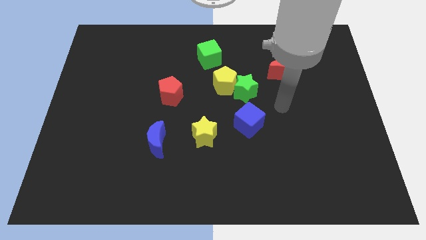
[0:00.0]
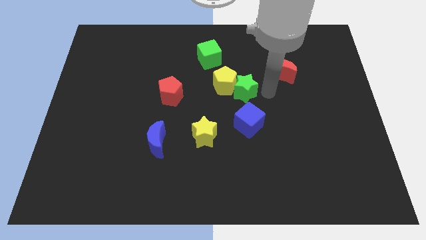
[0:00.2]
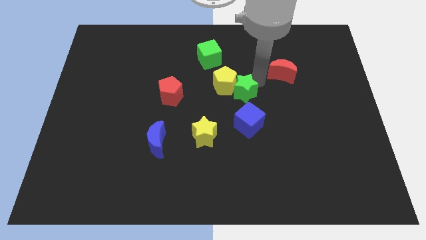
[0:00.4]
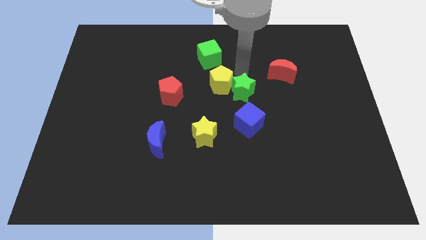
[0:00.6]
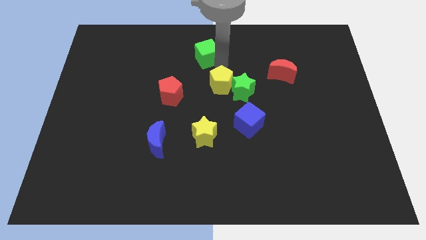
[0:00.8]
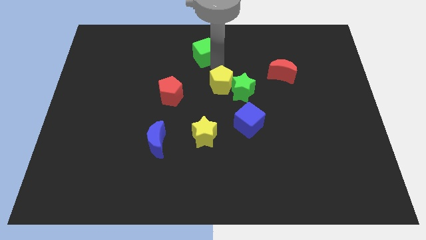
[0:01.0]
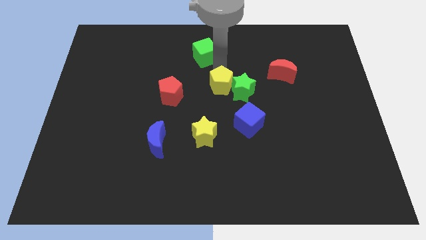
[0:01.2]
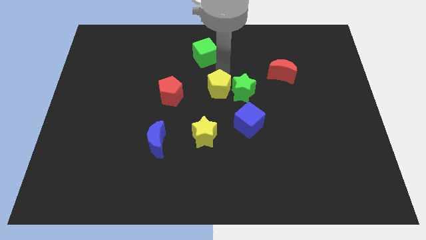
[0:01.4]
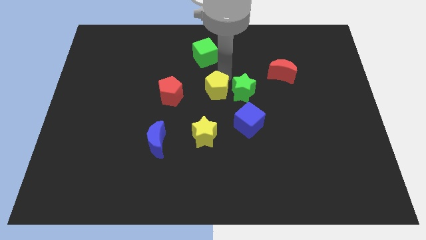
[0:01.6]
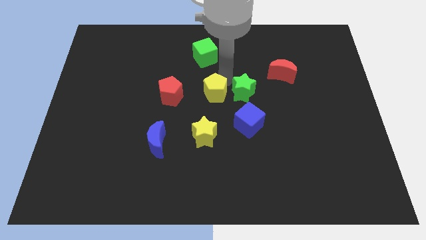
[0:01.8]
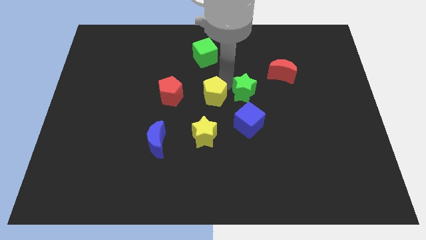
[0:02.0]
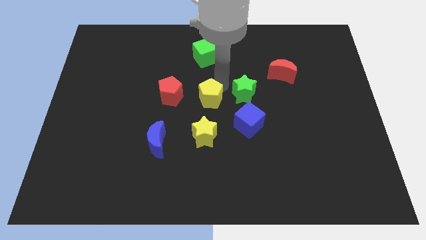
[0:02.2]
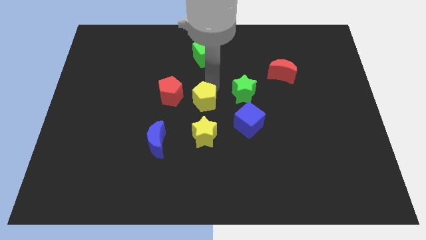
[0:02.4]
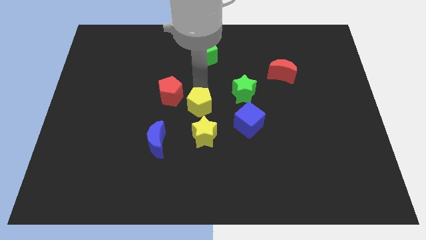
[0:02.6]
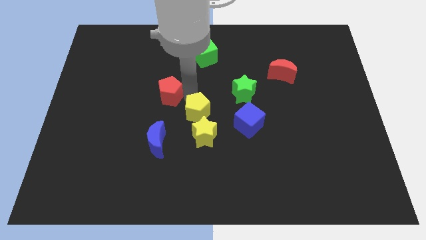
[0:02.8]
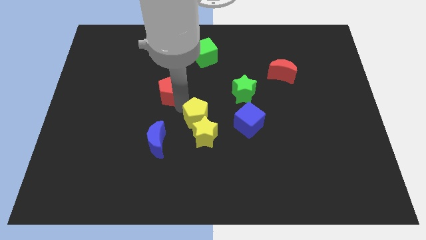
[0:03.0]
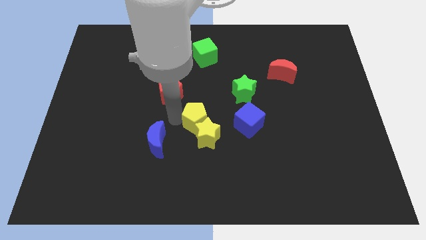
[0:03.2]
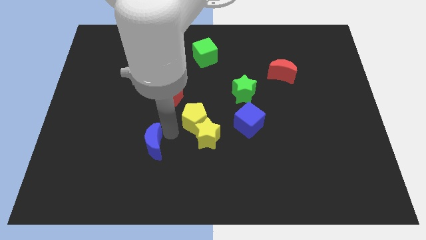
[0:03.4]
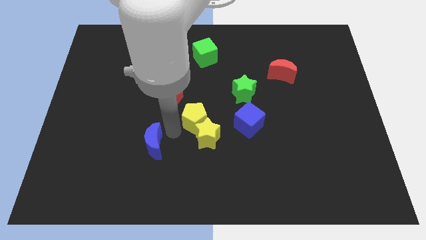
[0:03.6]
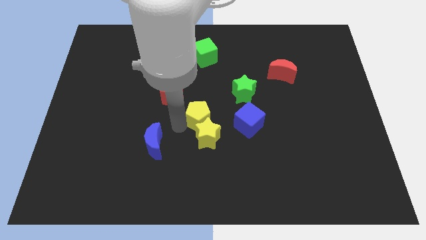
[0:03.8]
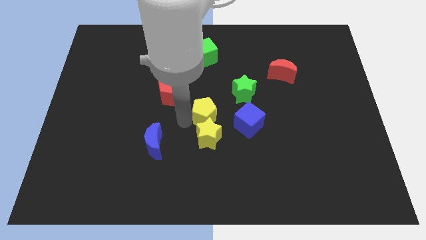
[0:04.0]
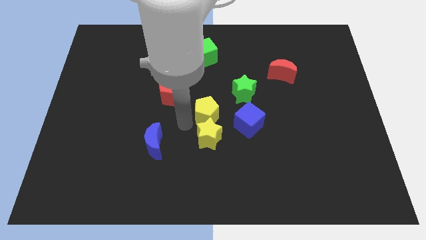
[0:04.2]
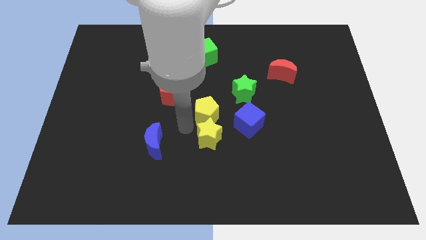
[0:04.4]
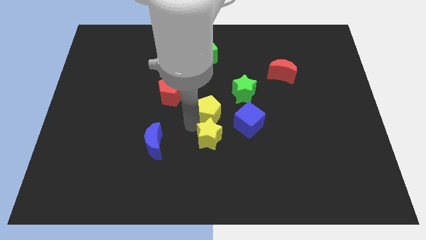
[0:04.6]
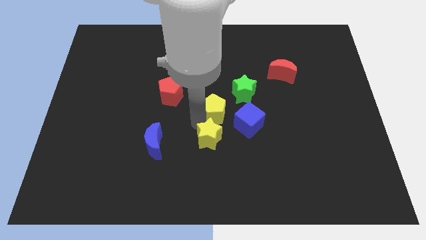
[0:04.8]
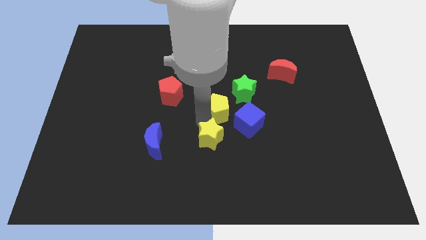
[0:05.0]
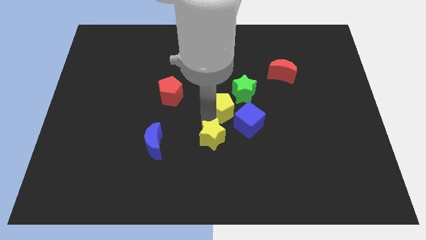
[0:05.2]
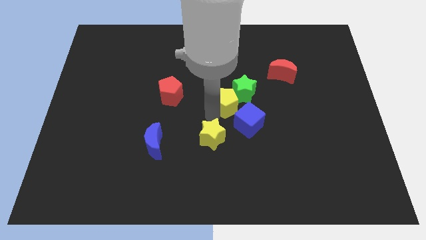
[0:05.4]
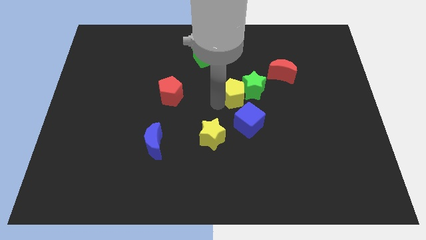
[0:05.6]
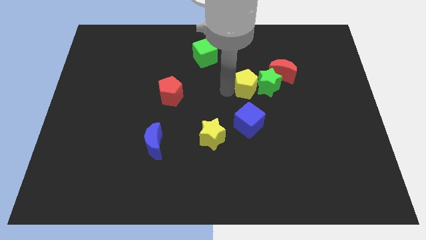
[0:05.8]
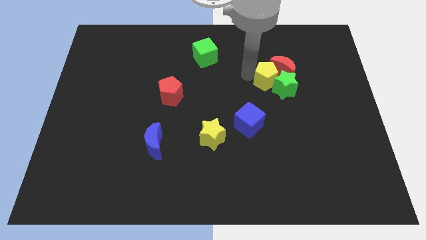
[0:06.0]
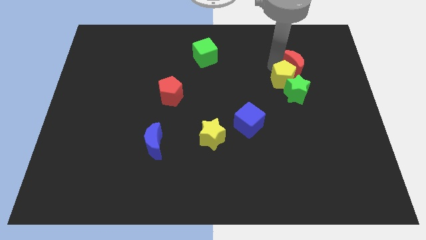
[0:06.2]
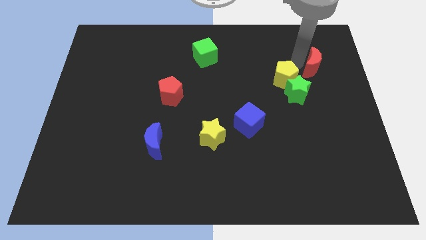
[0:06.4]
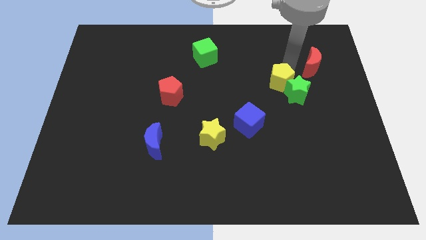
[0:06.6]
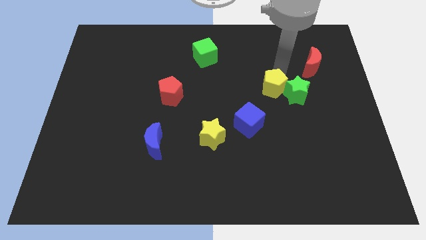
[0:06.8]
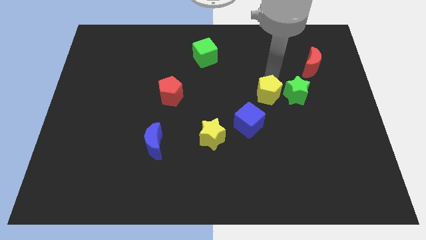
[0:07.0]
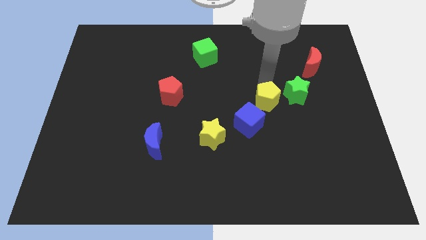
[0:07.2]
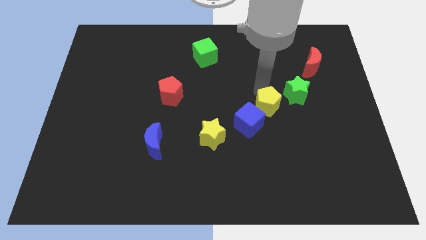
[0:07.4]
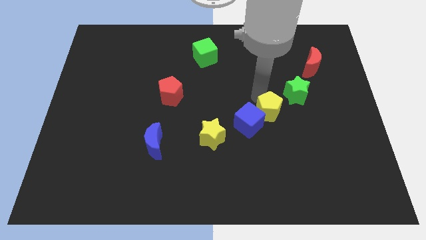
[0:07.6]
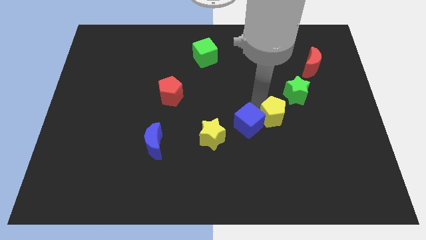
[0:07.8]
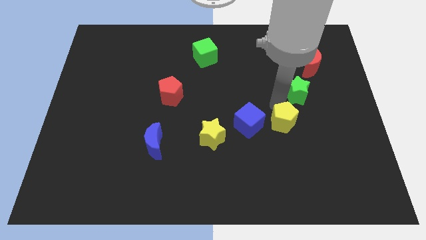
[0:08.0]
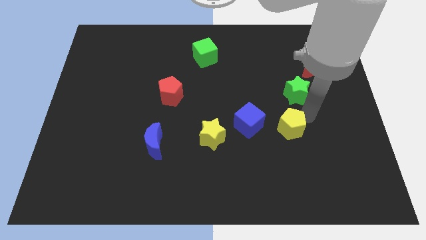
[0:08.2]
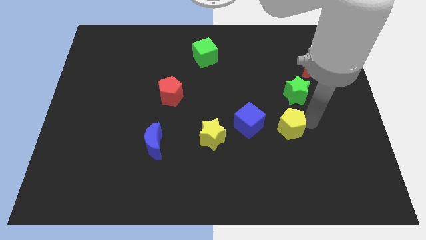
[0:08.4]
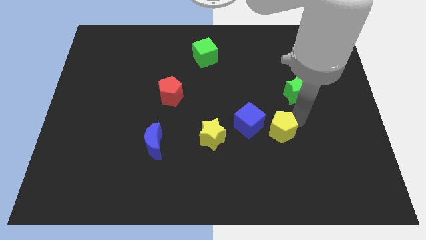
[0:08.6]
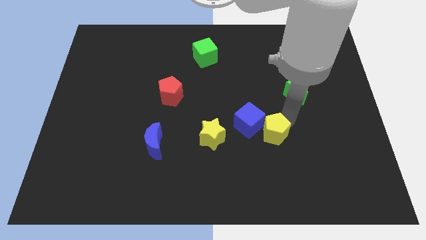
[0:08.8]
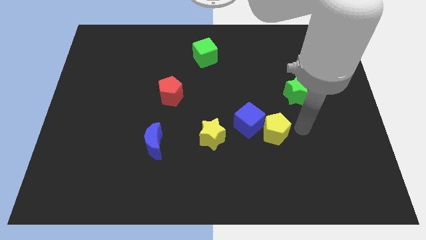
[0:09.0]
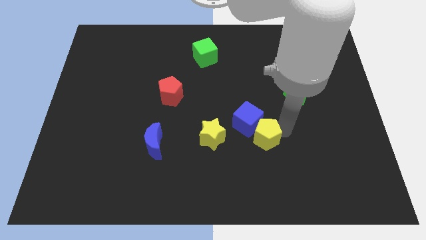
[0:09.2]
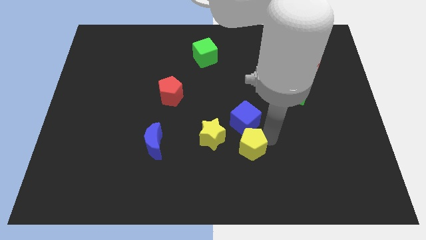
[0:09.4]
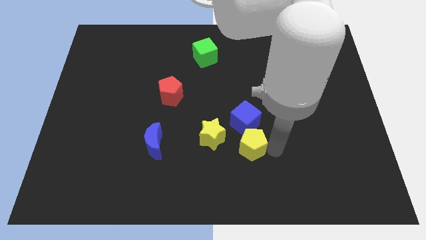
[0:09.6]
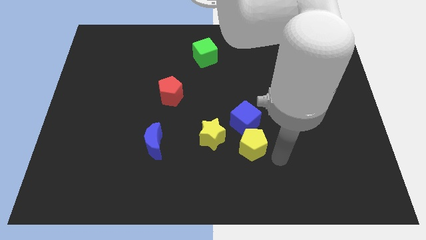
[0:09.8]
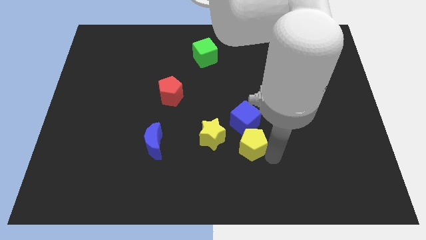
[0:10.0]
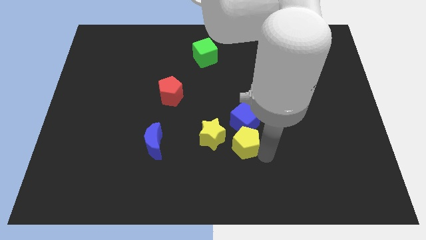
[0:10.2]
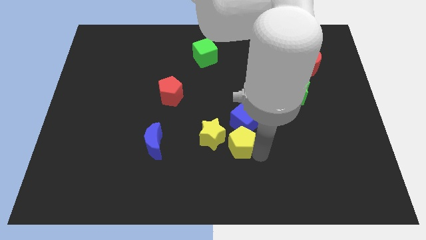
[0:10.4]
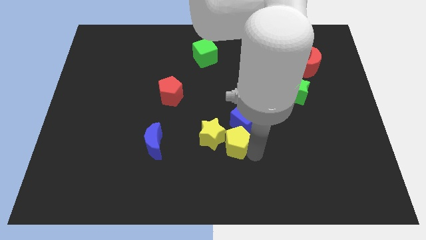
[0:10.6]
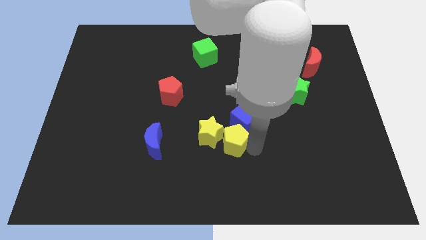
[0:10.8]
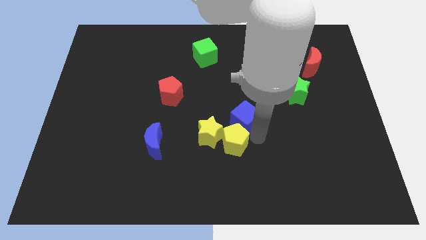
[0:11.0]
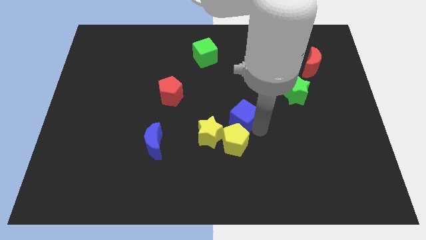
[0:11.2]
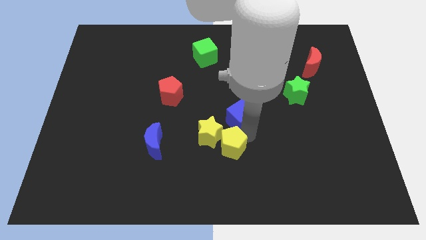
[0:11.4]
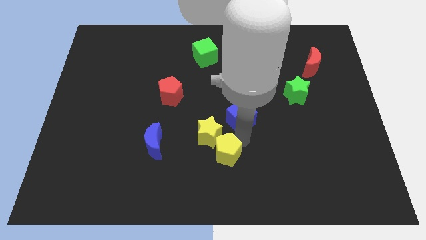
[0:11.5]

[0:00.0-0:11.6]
slide the yellow pentagon to the bottom of the yellow star

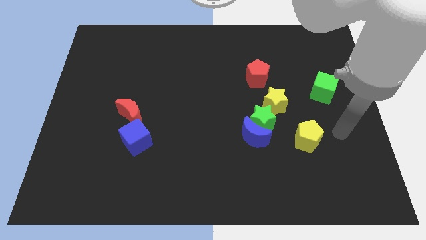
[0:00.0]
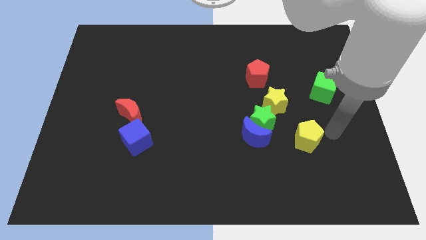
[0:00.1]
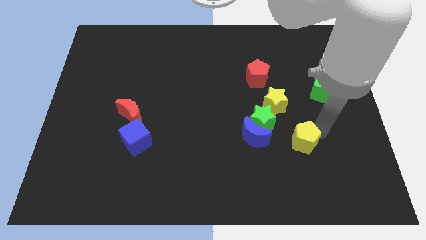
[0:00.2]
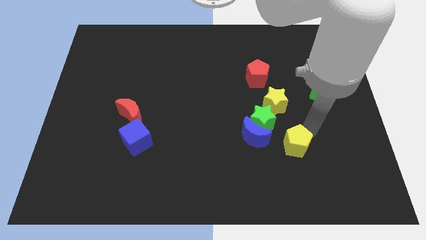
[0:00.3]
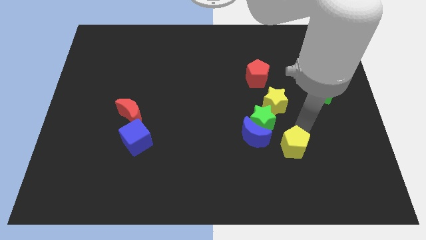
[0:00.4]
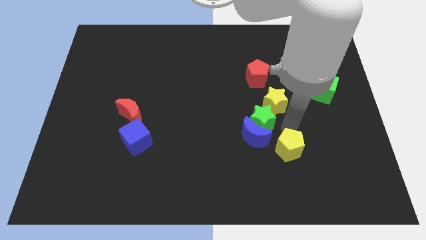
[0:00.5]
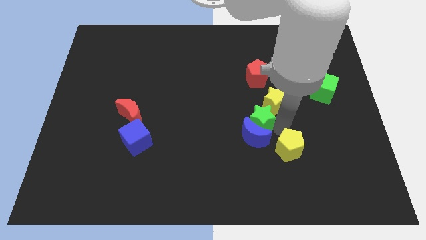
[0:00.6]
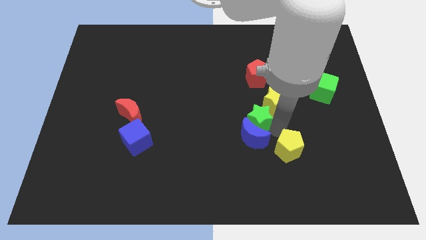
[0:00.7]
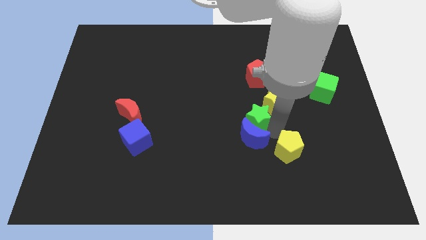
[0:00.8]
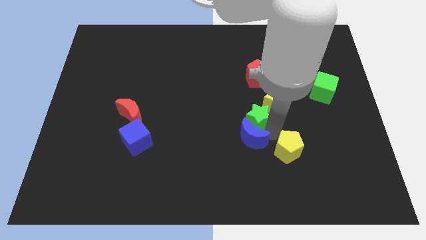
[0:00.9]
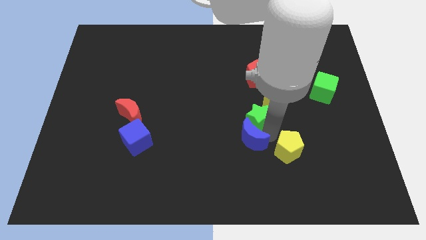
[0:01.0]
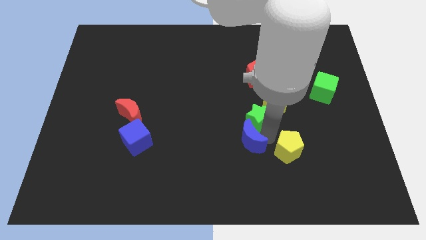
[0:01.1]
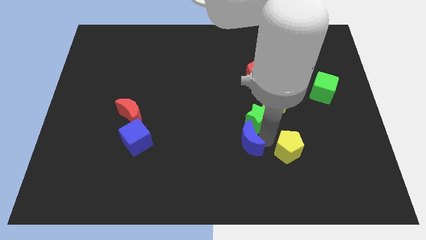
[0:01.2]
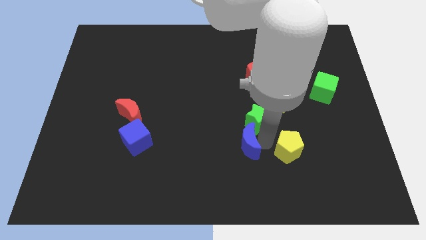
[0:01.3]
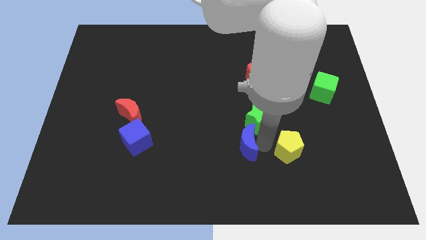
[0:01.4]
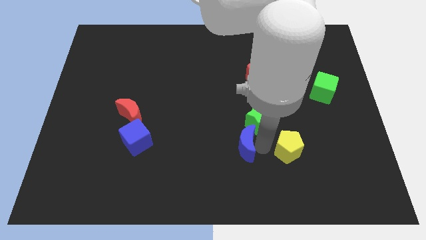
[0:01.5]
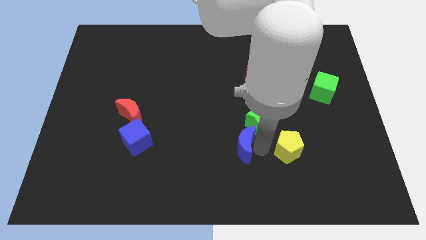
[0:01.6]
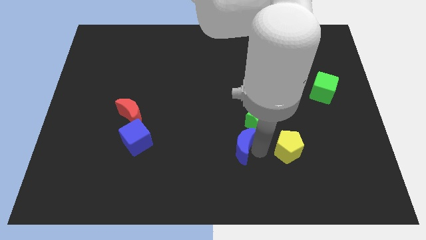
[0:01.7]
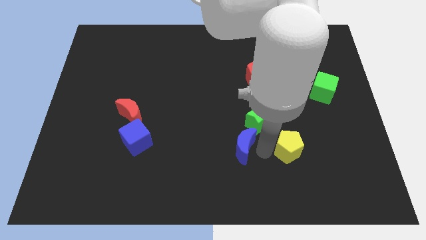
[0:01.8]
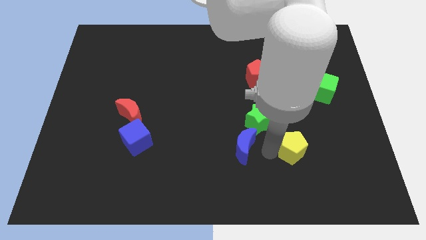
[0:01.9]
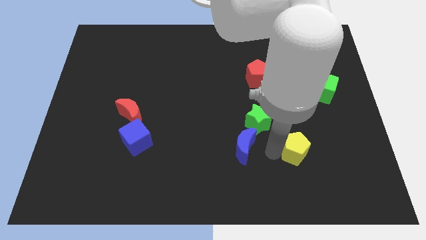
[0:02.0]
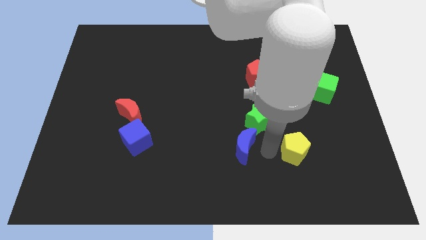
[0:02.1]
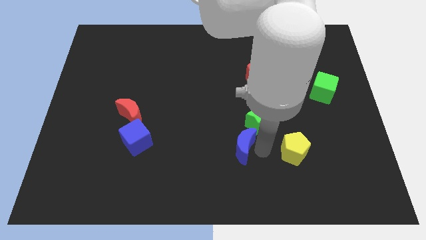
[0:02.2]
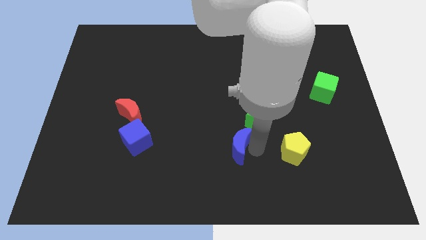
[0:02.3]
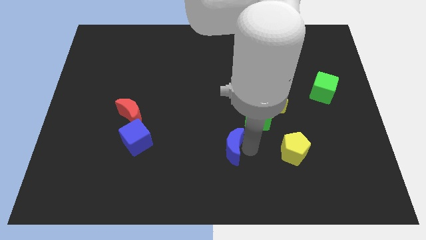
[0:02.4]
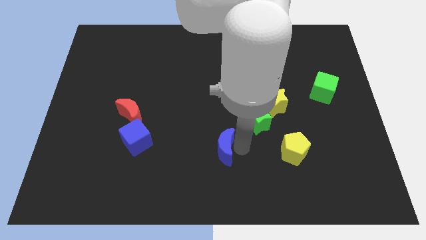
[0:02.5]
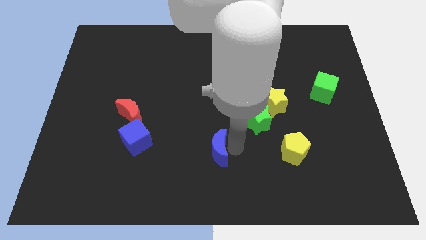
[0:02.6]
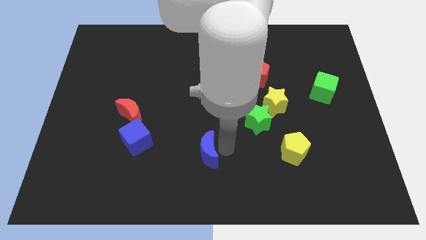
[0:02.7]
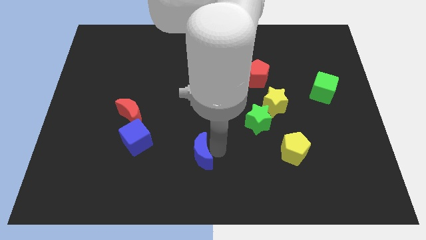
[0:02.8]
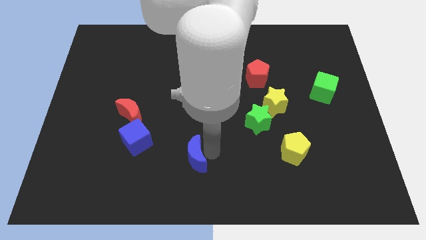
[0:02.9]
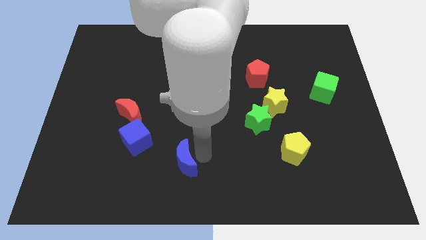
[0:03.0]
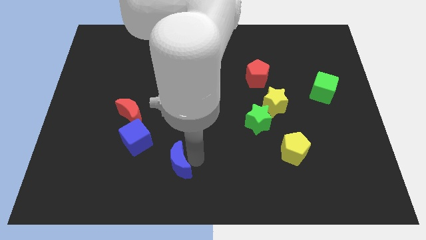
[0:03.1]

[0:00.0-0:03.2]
put the blue moon to the bottom right of the blue cube
